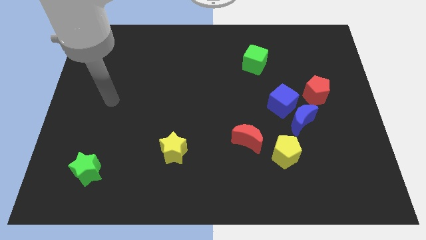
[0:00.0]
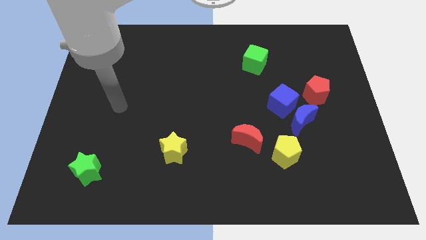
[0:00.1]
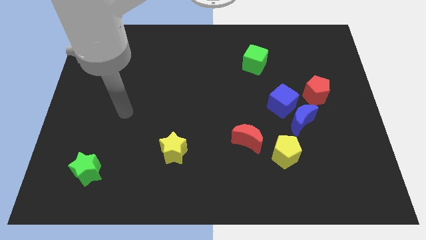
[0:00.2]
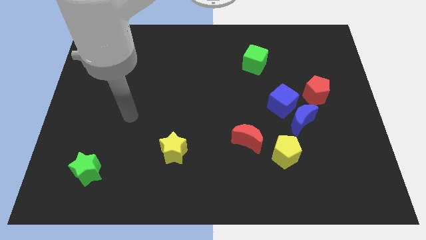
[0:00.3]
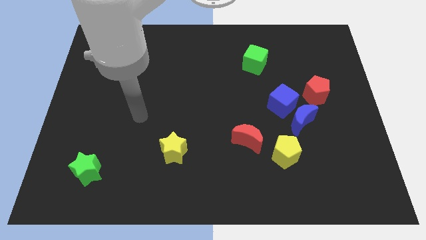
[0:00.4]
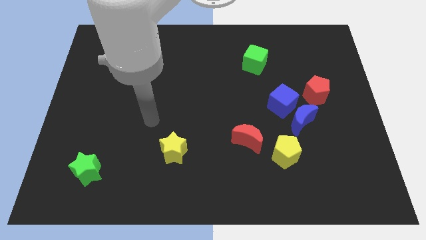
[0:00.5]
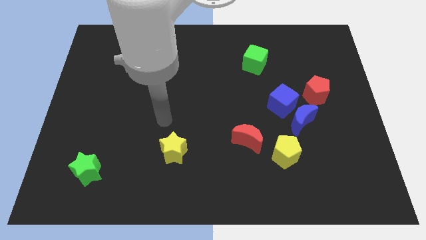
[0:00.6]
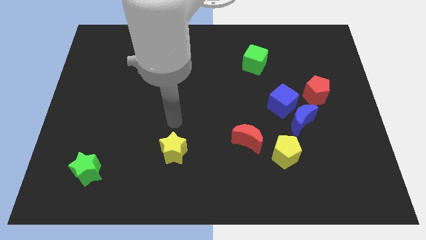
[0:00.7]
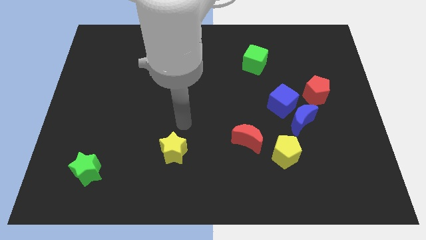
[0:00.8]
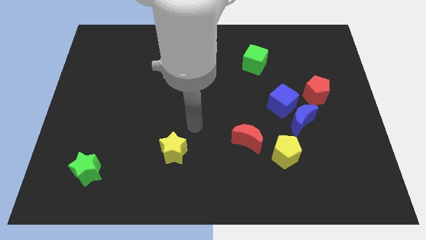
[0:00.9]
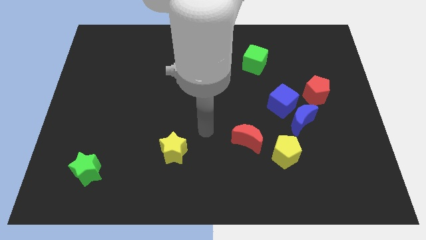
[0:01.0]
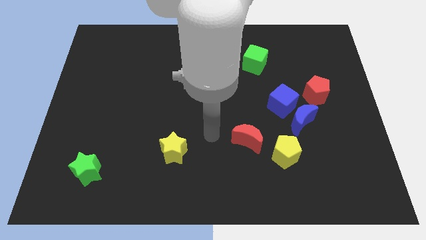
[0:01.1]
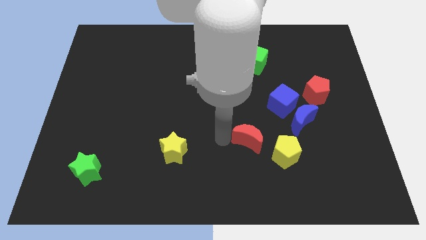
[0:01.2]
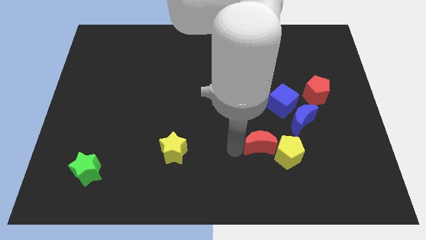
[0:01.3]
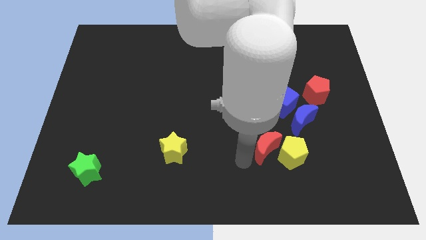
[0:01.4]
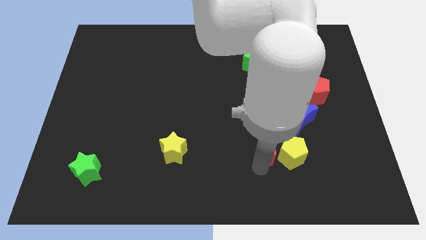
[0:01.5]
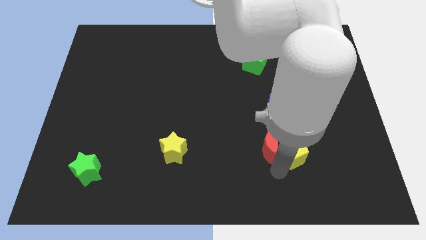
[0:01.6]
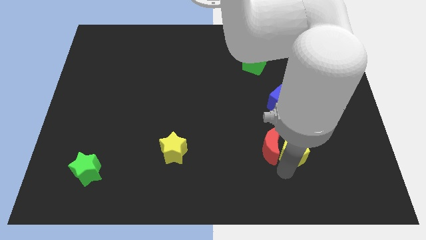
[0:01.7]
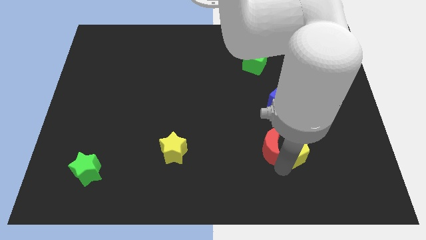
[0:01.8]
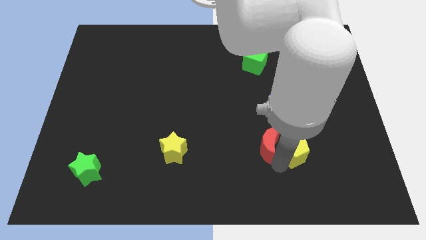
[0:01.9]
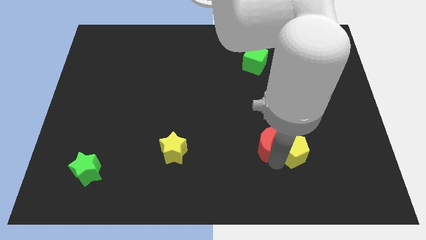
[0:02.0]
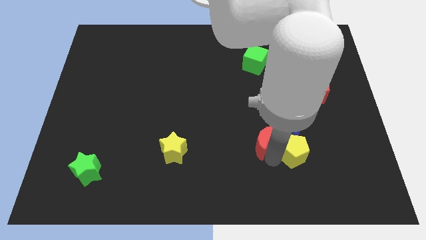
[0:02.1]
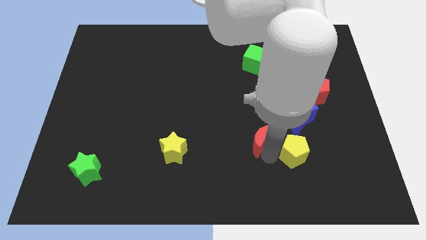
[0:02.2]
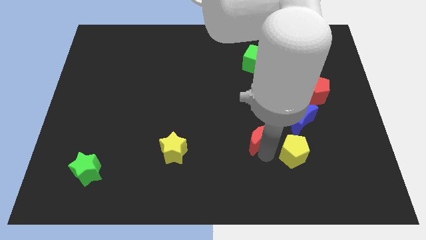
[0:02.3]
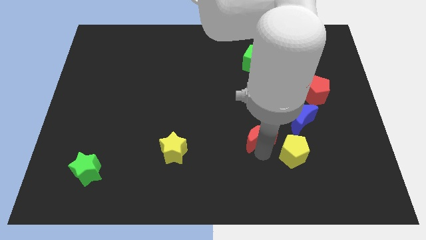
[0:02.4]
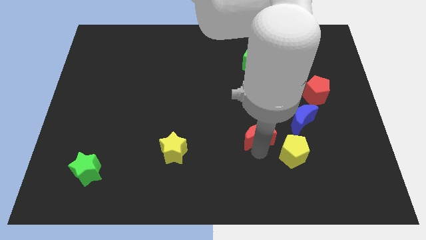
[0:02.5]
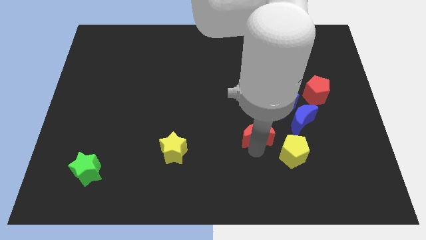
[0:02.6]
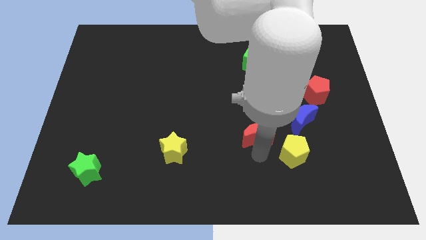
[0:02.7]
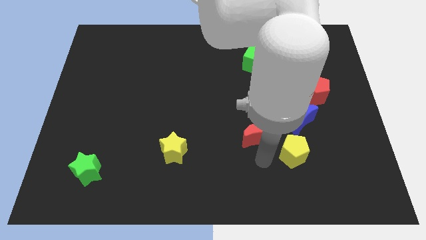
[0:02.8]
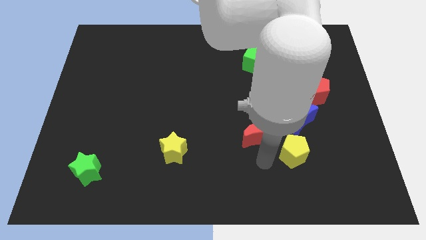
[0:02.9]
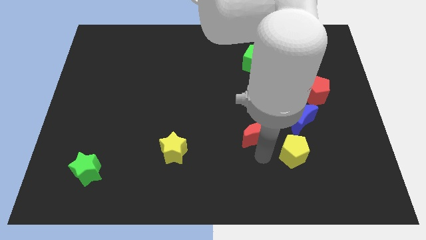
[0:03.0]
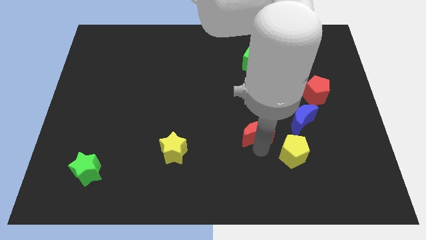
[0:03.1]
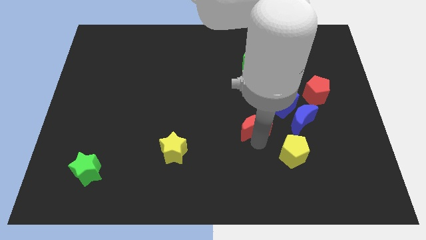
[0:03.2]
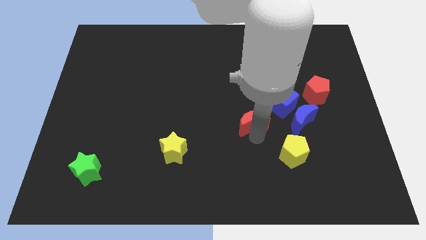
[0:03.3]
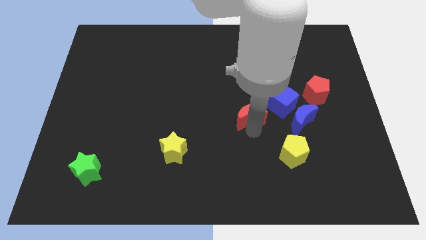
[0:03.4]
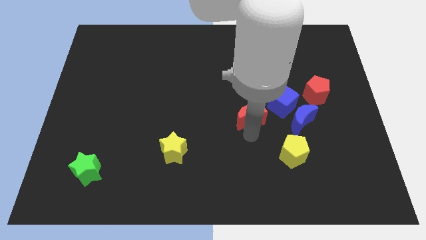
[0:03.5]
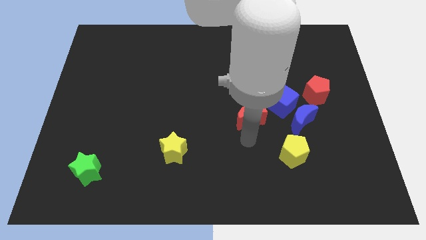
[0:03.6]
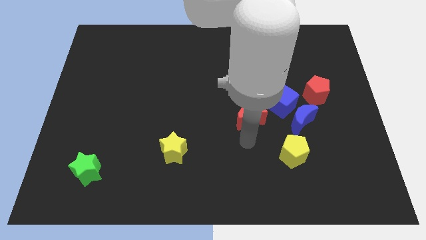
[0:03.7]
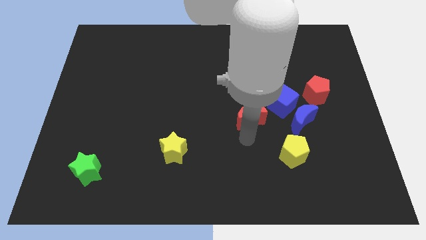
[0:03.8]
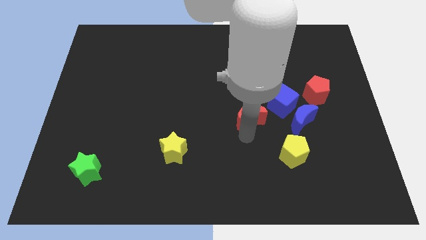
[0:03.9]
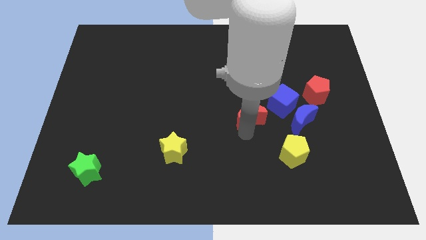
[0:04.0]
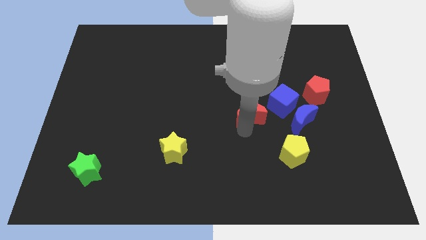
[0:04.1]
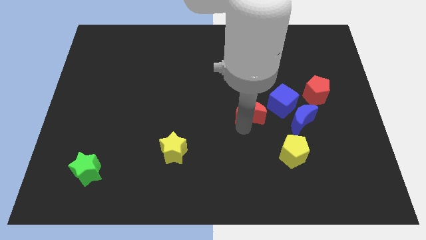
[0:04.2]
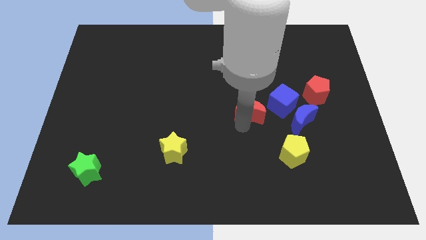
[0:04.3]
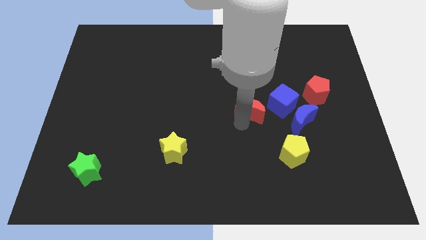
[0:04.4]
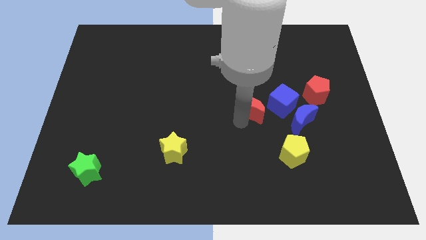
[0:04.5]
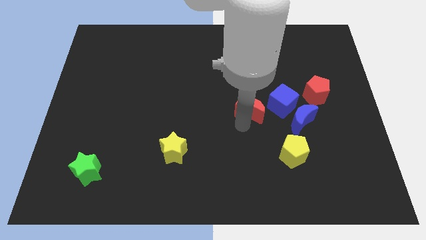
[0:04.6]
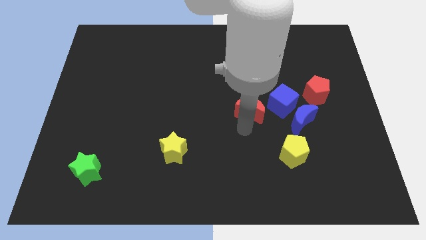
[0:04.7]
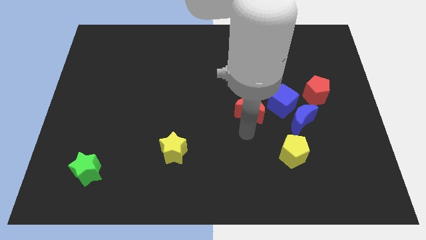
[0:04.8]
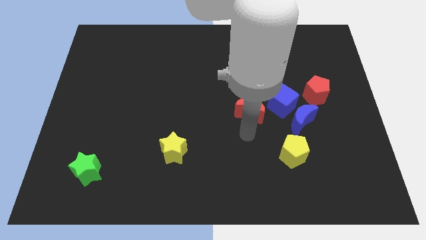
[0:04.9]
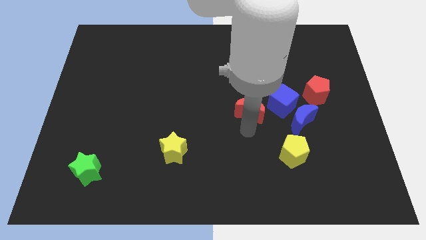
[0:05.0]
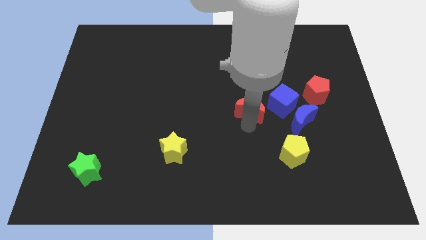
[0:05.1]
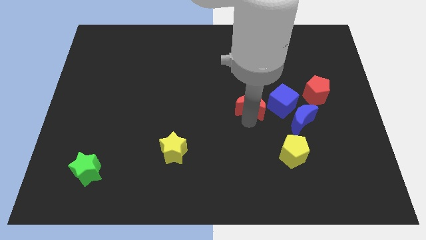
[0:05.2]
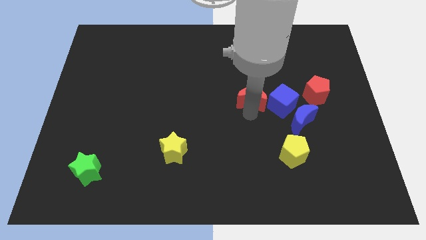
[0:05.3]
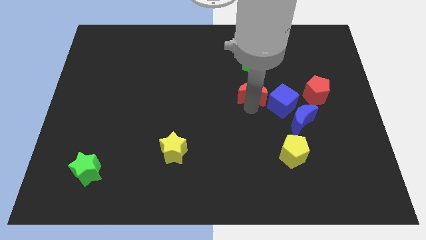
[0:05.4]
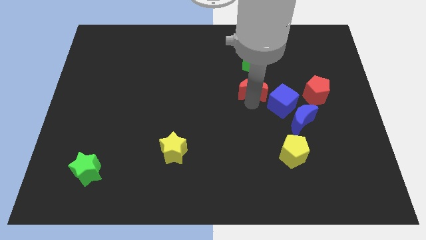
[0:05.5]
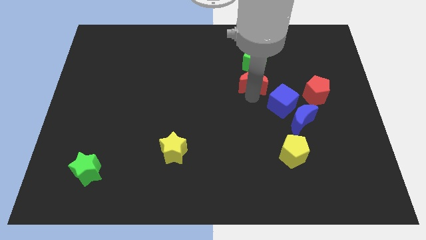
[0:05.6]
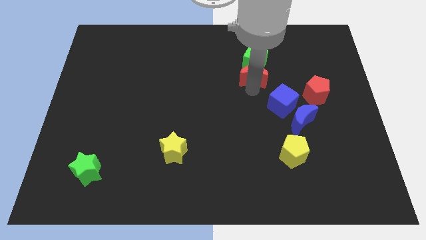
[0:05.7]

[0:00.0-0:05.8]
slide the red moon close to the green cube

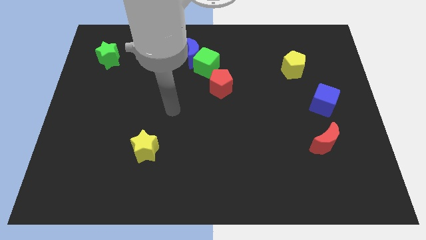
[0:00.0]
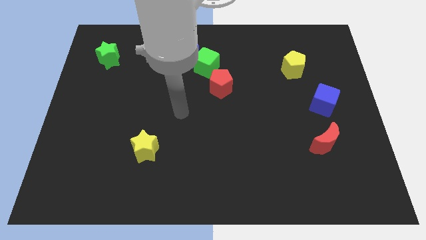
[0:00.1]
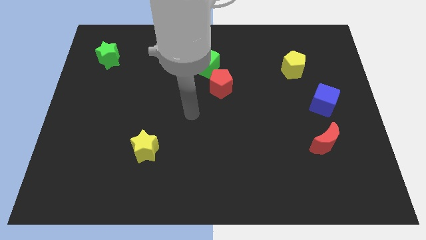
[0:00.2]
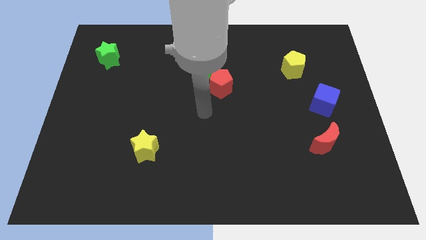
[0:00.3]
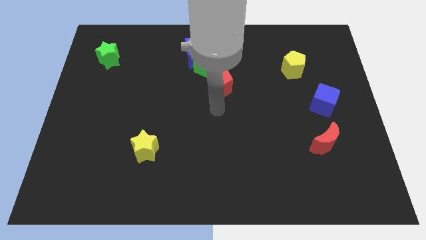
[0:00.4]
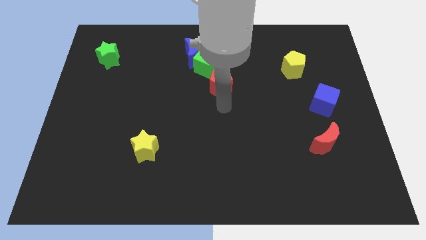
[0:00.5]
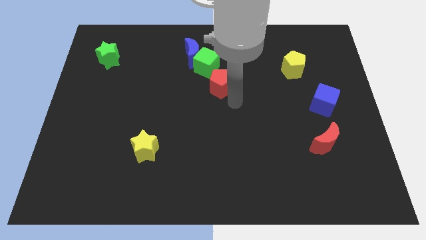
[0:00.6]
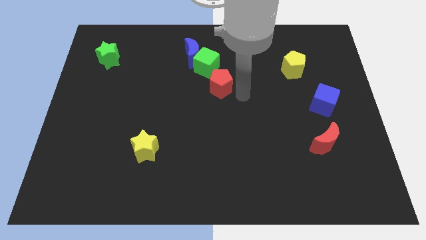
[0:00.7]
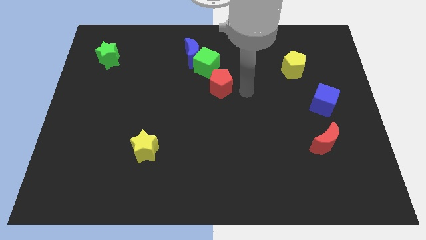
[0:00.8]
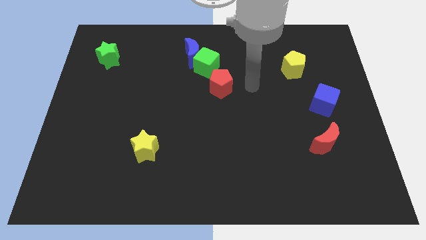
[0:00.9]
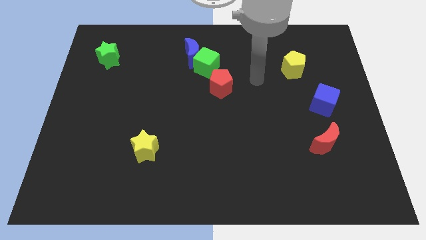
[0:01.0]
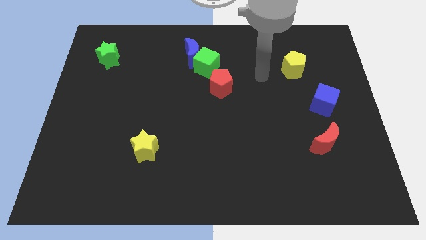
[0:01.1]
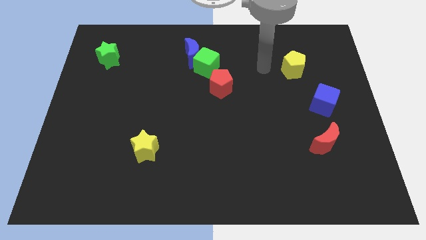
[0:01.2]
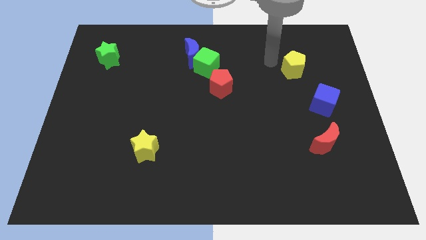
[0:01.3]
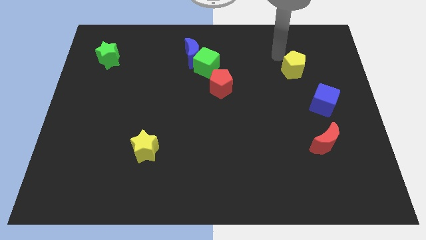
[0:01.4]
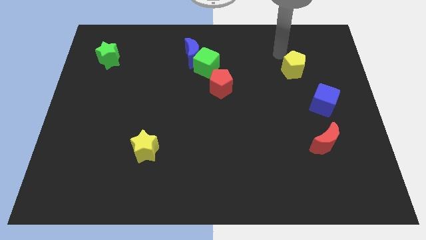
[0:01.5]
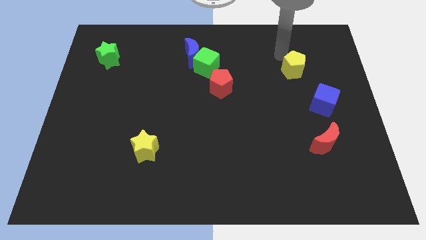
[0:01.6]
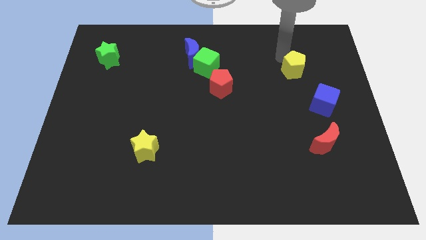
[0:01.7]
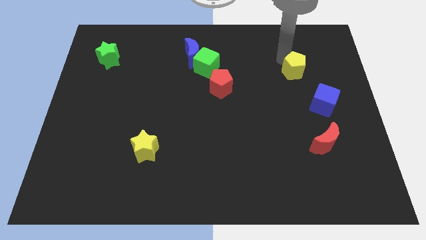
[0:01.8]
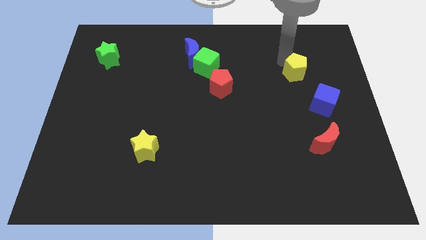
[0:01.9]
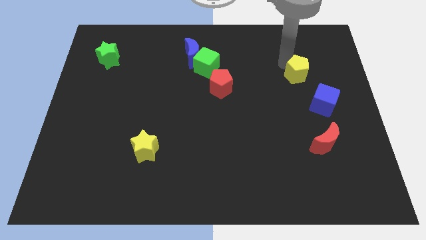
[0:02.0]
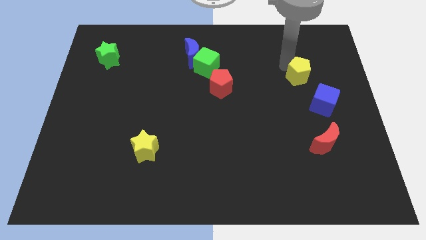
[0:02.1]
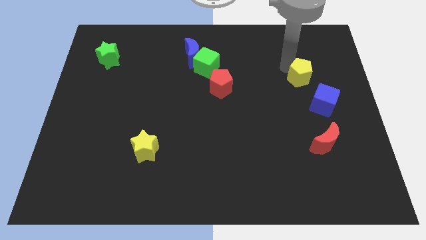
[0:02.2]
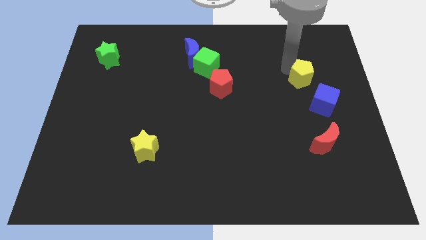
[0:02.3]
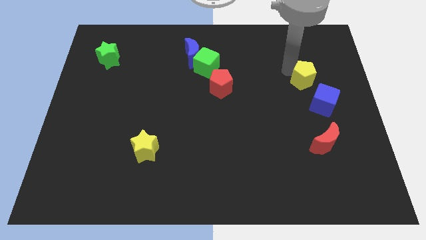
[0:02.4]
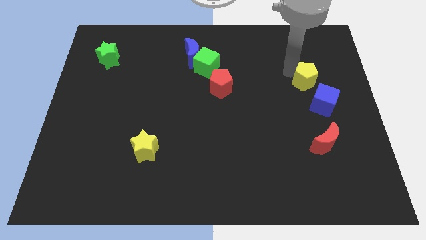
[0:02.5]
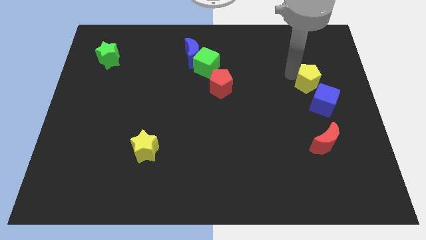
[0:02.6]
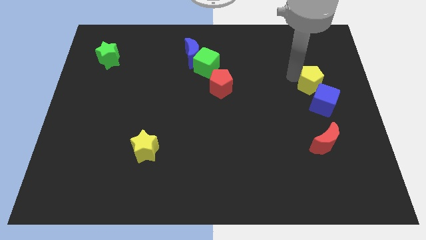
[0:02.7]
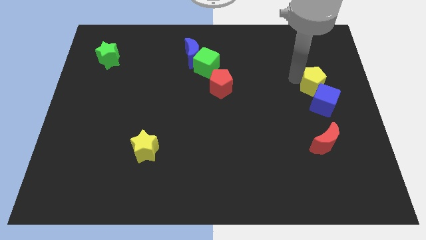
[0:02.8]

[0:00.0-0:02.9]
slide the yellow pentagon close to the blue cube

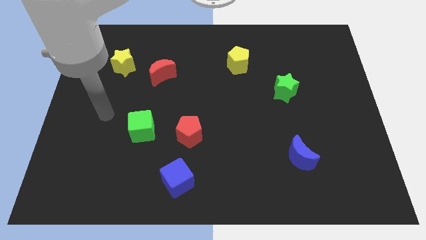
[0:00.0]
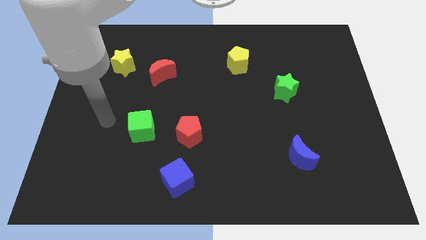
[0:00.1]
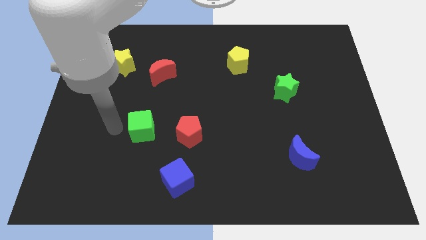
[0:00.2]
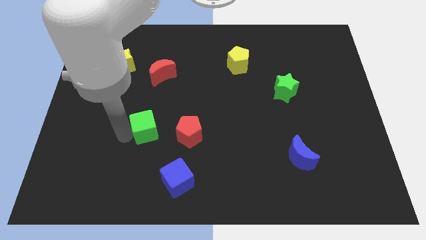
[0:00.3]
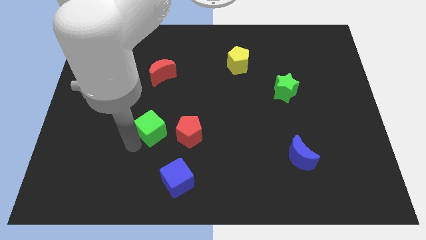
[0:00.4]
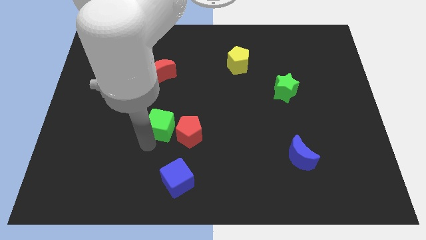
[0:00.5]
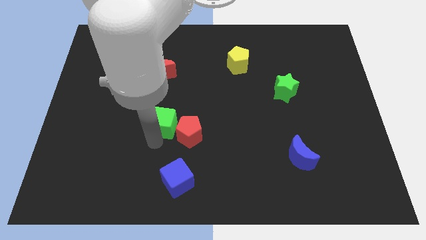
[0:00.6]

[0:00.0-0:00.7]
put the red pentagon next to the green cube
